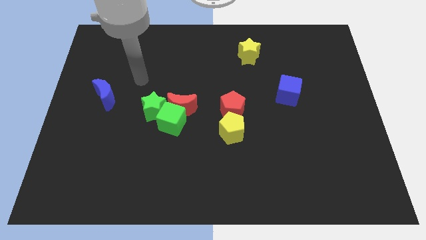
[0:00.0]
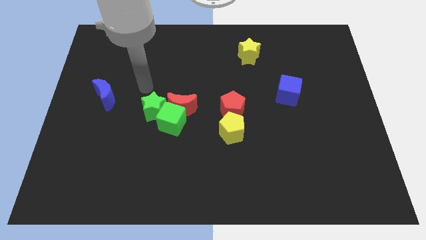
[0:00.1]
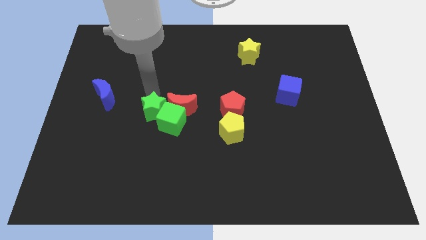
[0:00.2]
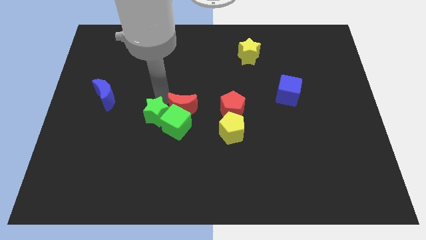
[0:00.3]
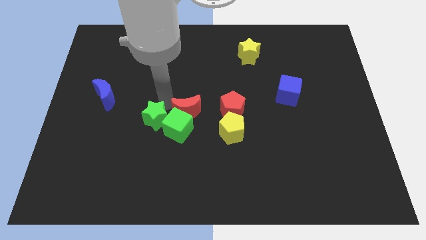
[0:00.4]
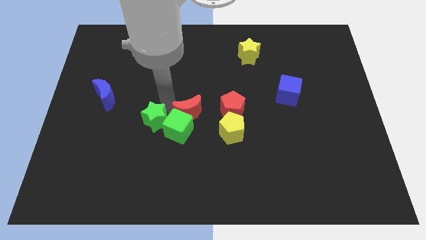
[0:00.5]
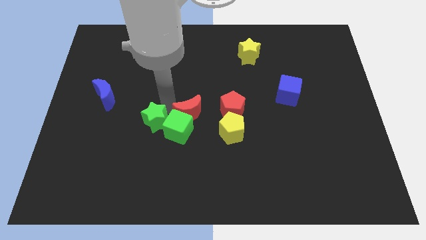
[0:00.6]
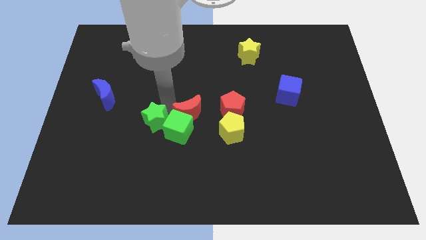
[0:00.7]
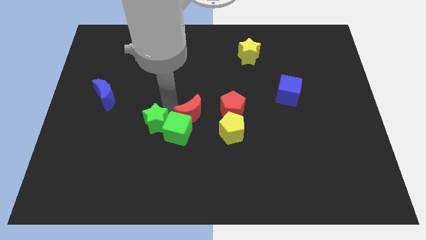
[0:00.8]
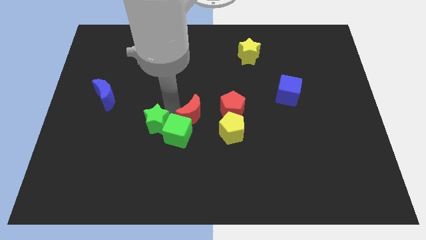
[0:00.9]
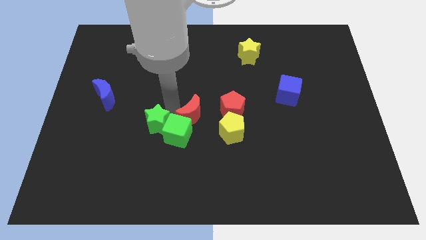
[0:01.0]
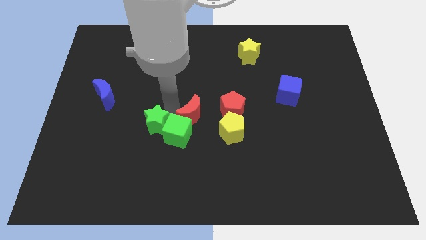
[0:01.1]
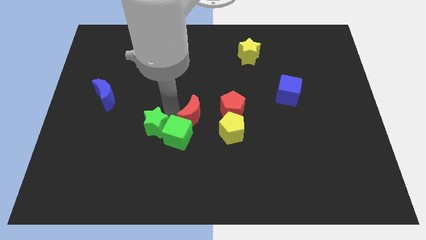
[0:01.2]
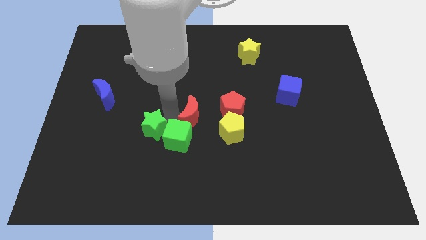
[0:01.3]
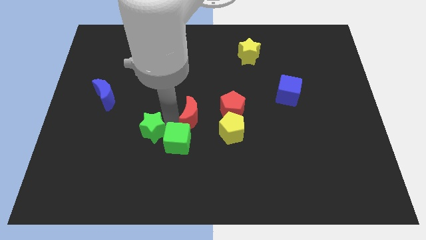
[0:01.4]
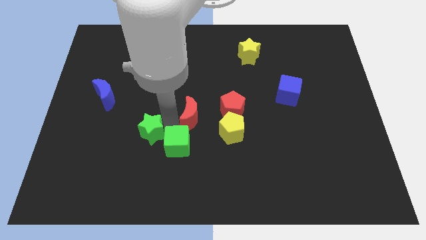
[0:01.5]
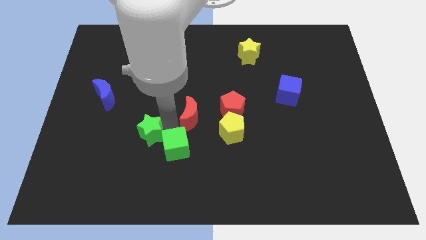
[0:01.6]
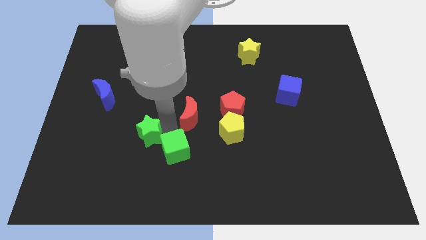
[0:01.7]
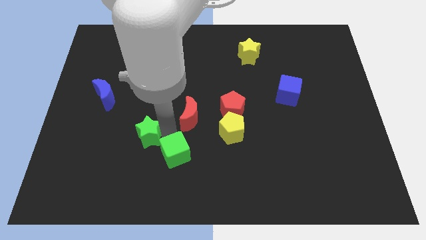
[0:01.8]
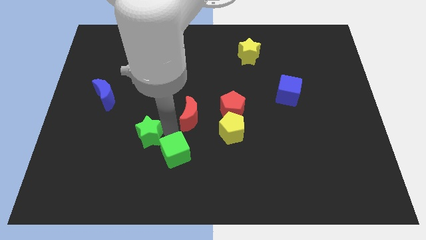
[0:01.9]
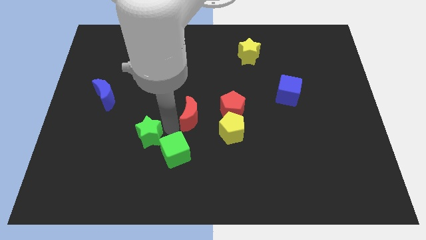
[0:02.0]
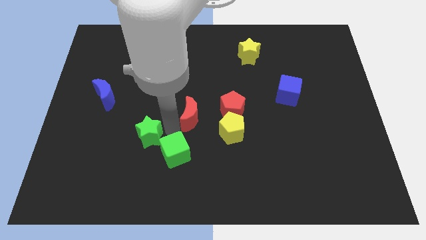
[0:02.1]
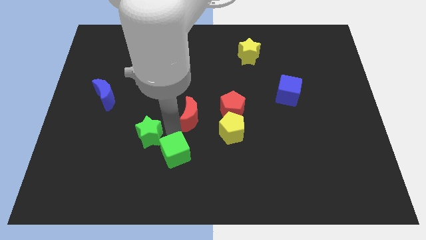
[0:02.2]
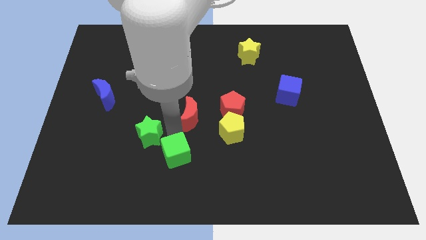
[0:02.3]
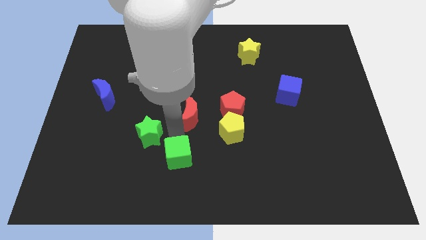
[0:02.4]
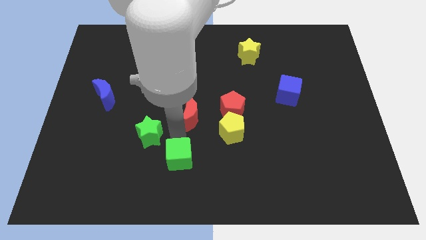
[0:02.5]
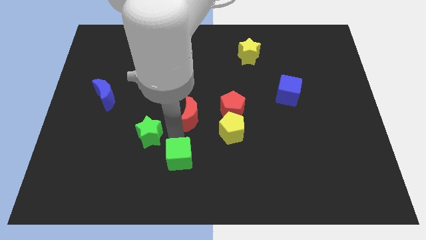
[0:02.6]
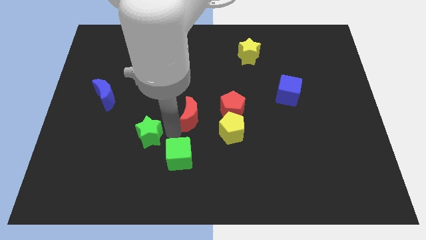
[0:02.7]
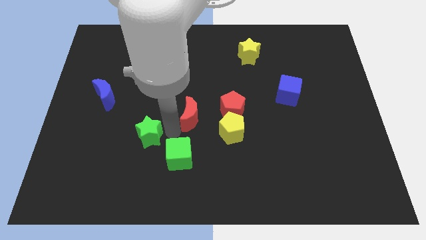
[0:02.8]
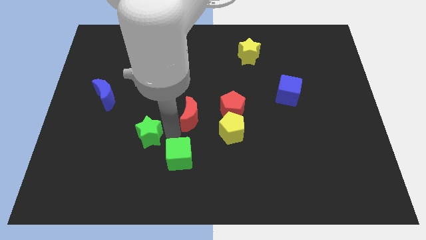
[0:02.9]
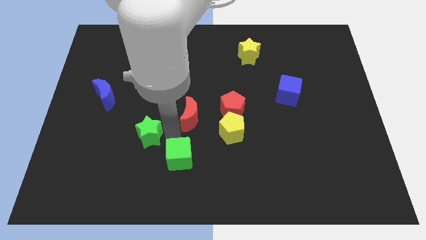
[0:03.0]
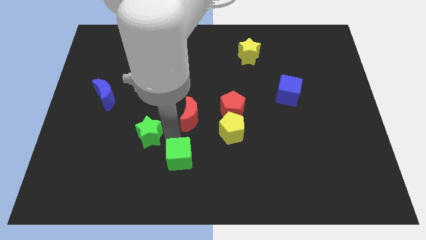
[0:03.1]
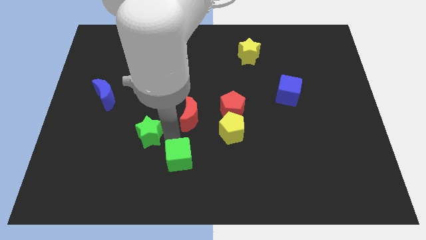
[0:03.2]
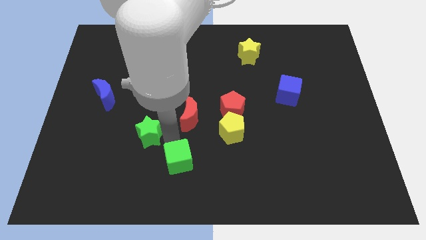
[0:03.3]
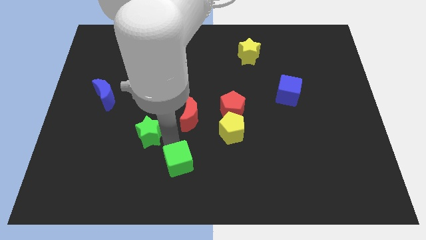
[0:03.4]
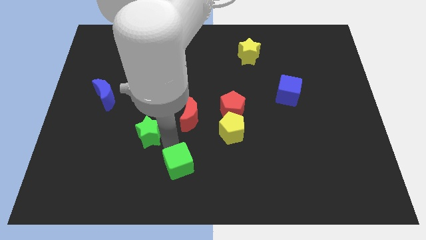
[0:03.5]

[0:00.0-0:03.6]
separate the green cube from the red moon and green star

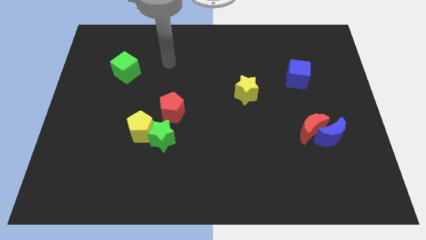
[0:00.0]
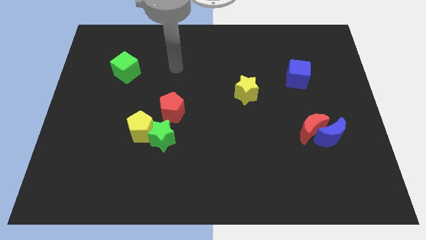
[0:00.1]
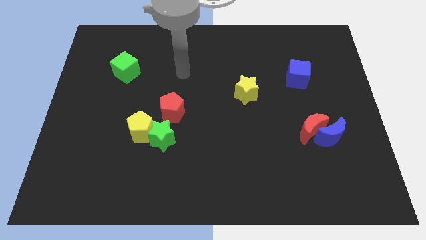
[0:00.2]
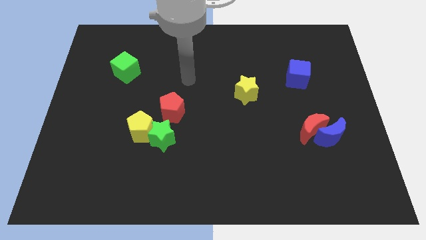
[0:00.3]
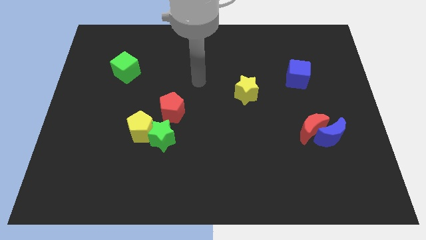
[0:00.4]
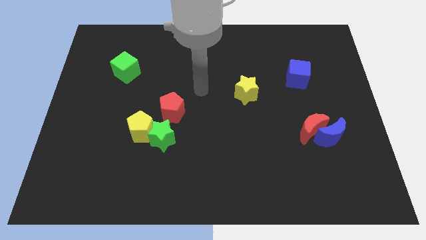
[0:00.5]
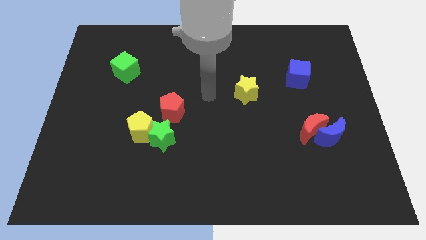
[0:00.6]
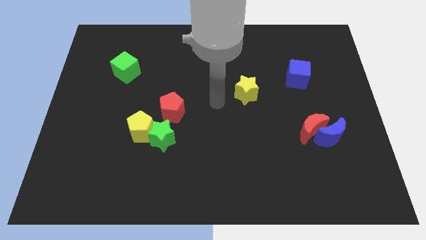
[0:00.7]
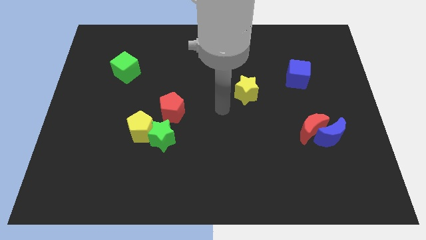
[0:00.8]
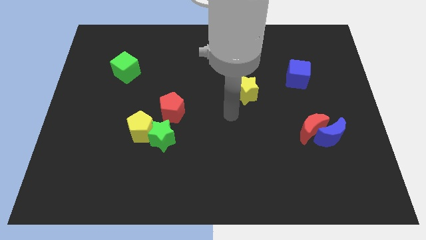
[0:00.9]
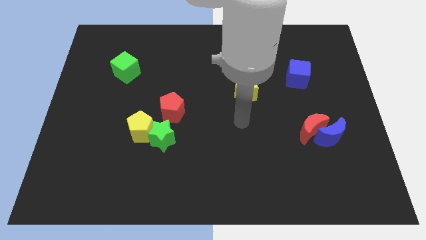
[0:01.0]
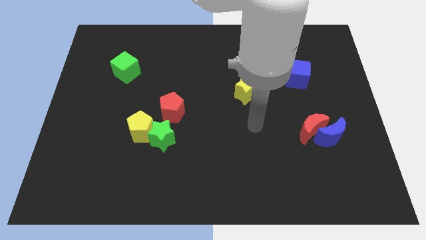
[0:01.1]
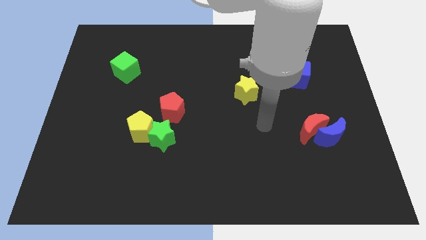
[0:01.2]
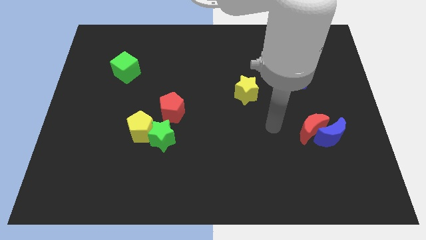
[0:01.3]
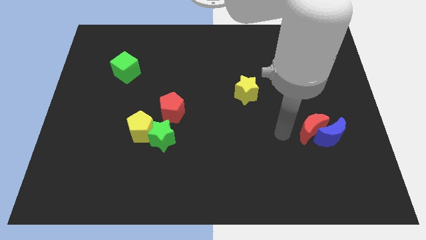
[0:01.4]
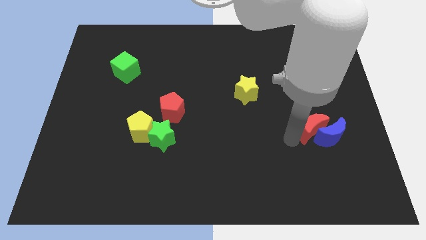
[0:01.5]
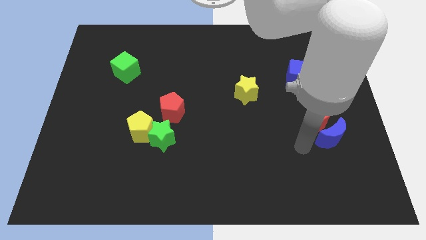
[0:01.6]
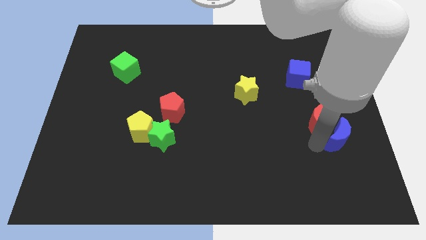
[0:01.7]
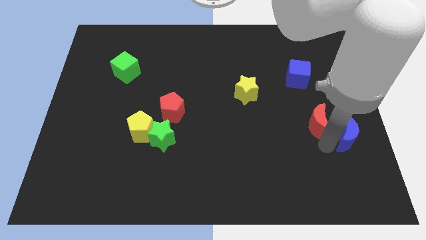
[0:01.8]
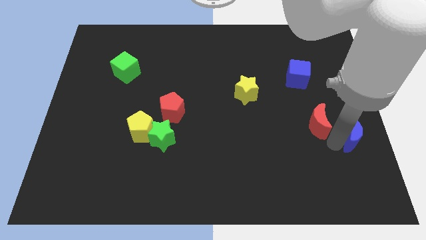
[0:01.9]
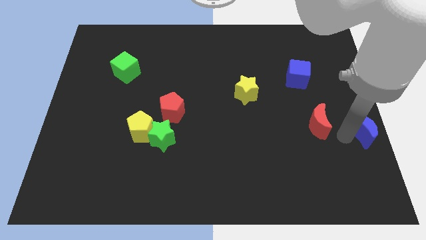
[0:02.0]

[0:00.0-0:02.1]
move the red moon away from the blue moon

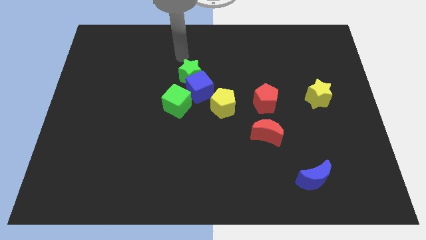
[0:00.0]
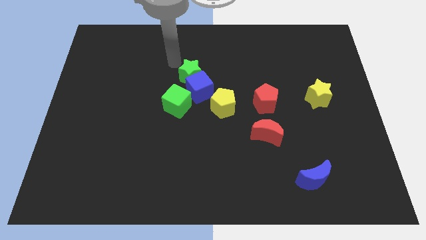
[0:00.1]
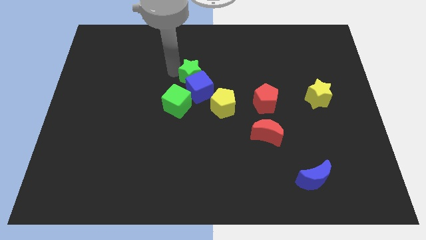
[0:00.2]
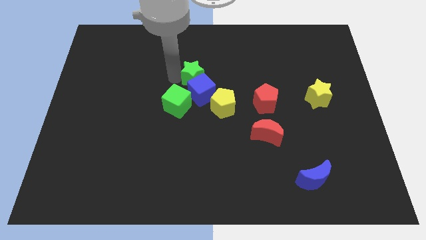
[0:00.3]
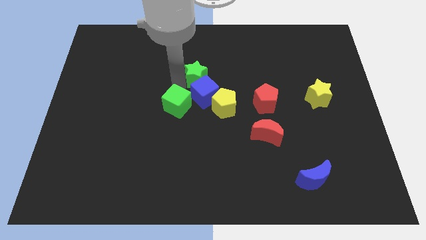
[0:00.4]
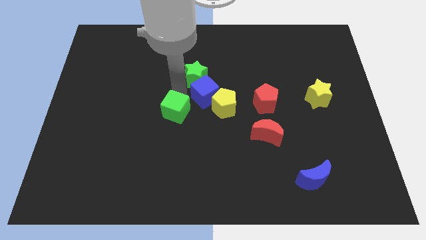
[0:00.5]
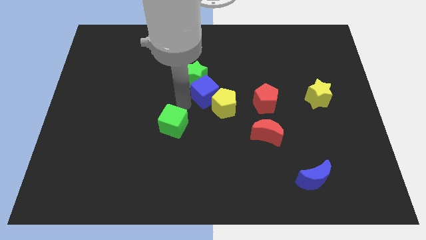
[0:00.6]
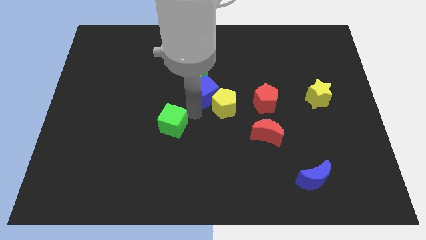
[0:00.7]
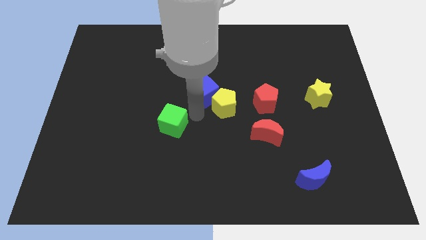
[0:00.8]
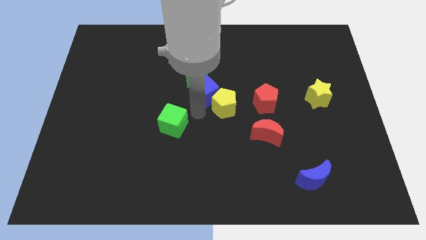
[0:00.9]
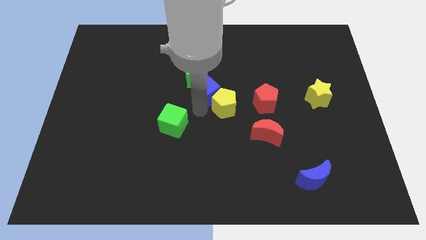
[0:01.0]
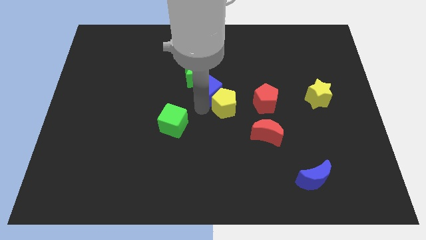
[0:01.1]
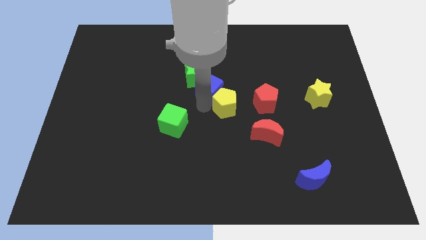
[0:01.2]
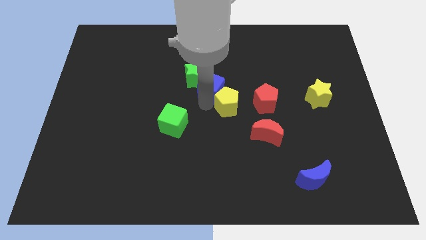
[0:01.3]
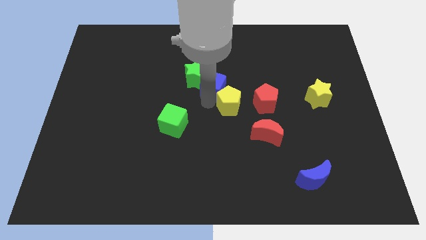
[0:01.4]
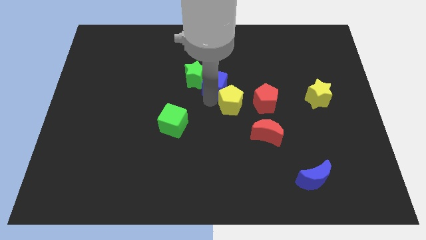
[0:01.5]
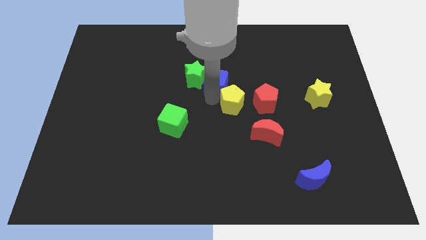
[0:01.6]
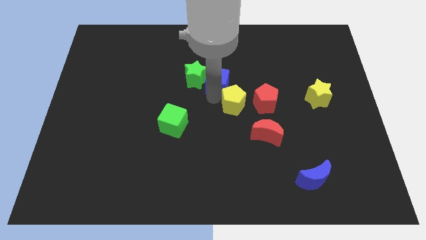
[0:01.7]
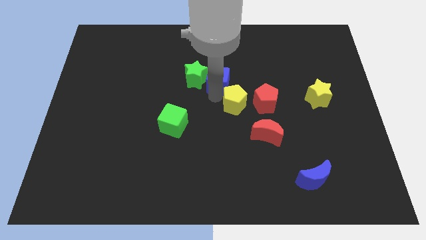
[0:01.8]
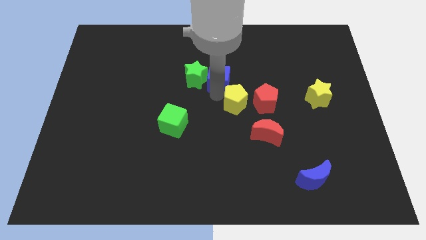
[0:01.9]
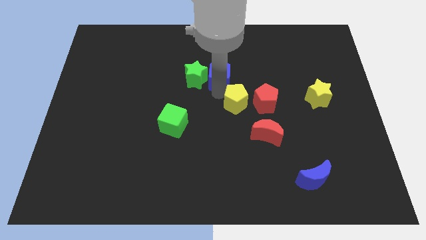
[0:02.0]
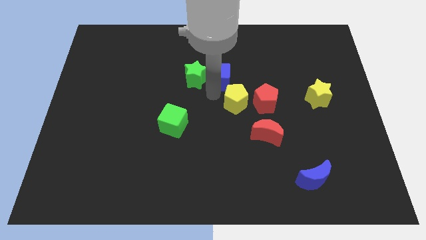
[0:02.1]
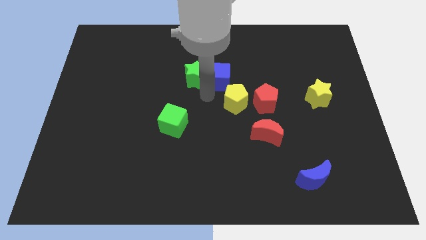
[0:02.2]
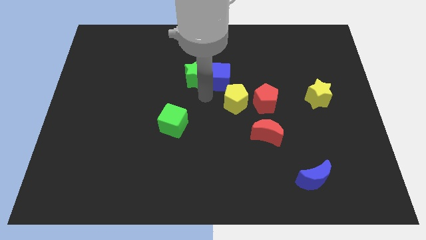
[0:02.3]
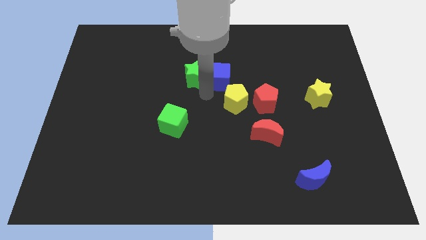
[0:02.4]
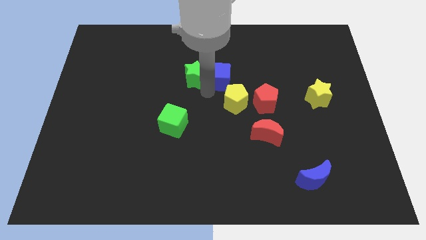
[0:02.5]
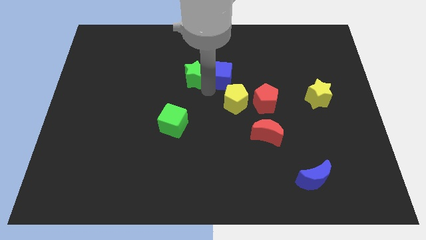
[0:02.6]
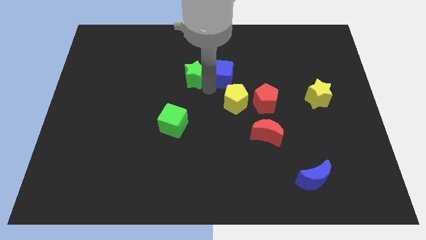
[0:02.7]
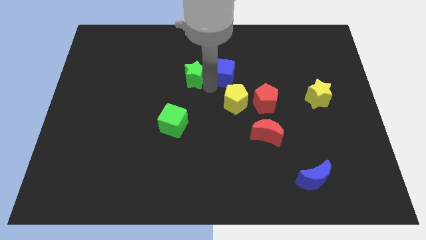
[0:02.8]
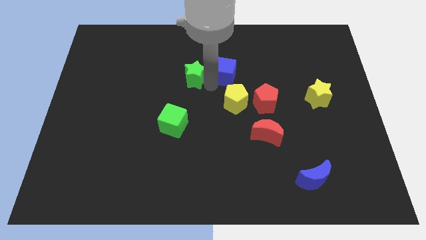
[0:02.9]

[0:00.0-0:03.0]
separate the blue cube from the green star, green cube, and yellow pentagon

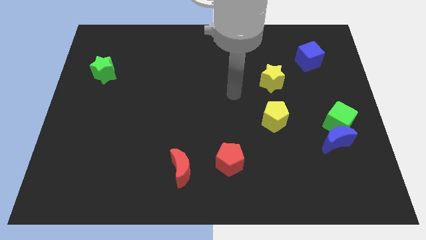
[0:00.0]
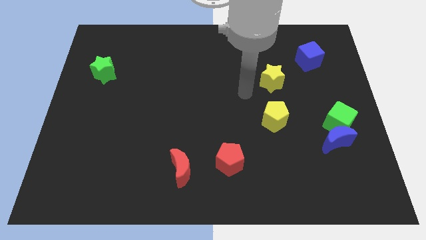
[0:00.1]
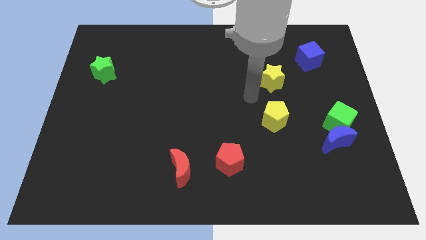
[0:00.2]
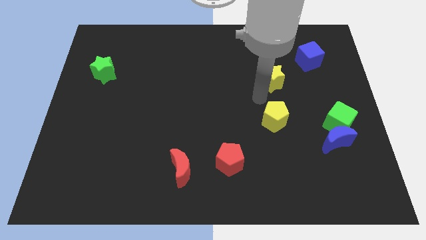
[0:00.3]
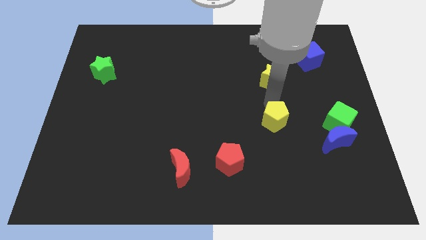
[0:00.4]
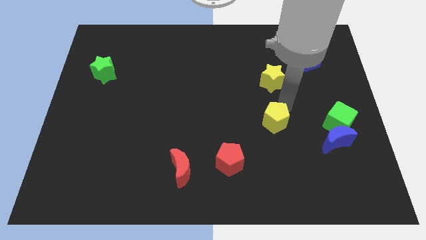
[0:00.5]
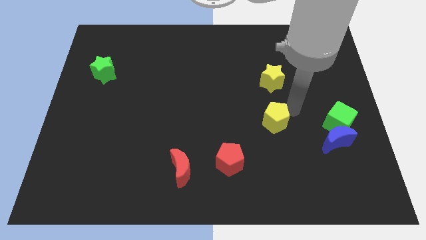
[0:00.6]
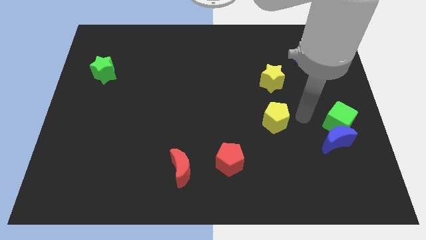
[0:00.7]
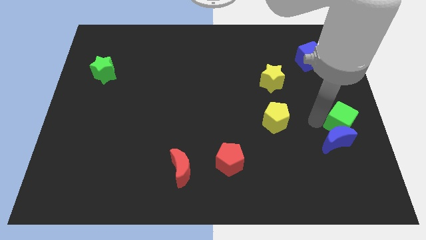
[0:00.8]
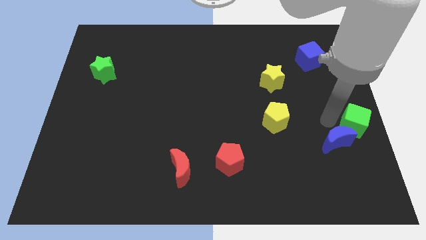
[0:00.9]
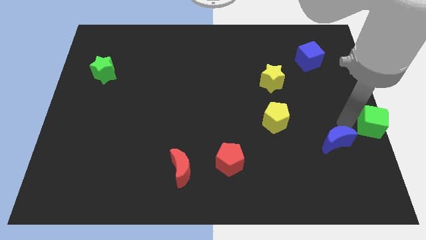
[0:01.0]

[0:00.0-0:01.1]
pull the blue moon apart from the green cube
